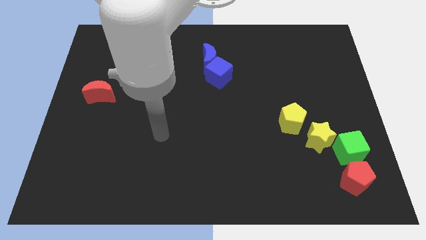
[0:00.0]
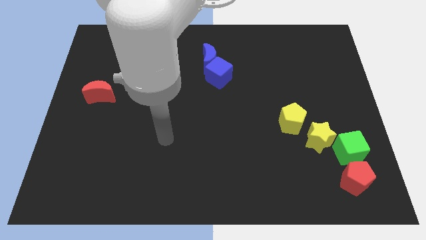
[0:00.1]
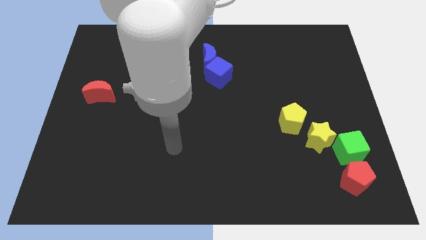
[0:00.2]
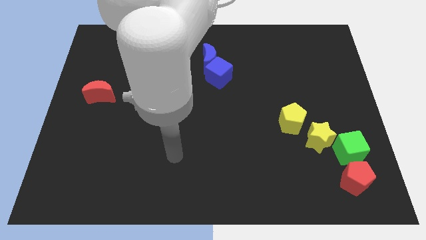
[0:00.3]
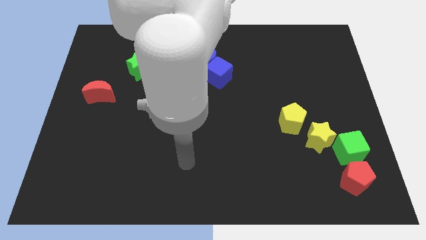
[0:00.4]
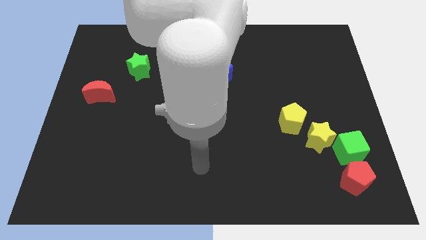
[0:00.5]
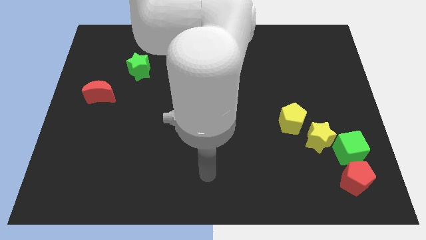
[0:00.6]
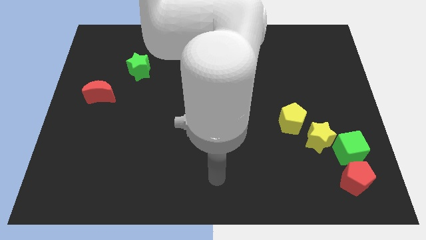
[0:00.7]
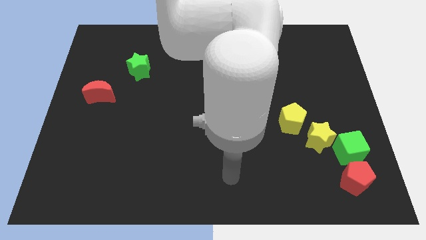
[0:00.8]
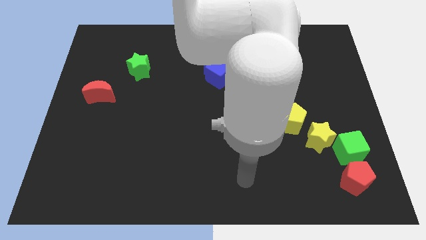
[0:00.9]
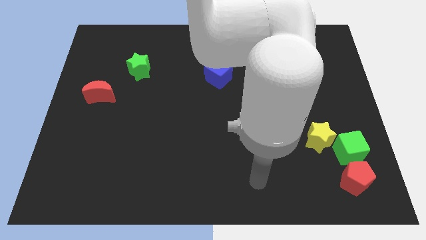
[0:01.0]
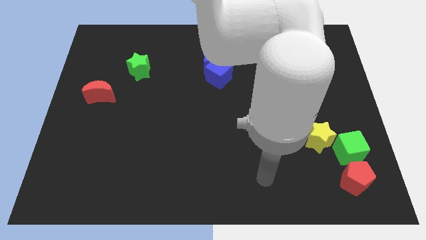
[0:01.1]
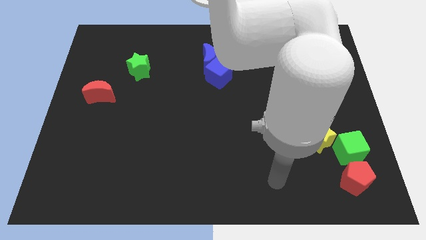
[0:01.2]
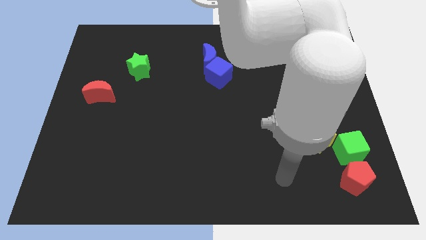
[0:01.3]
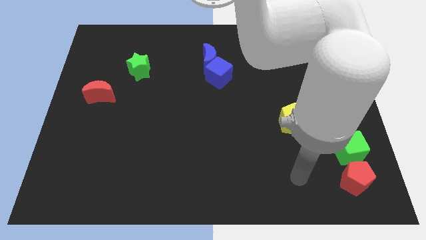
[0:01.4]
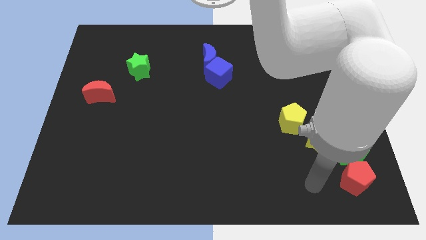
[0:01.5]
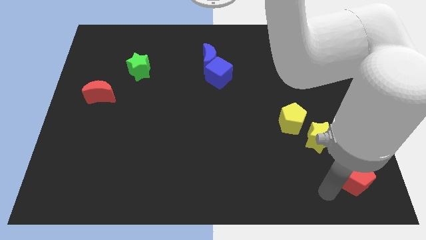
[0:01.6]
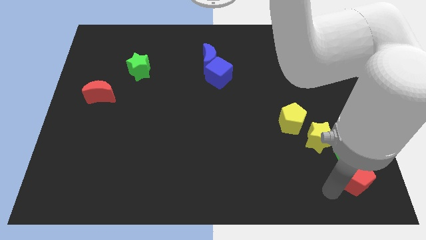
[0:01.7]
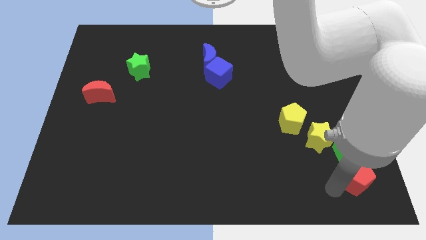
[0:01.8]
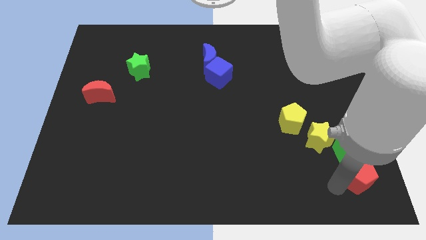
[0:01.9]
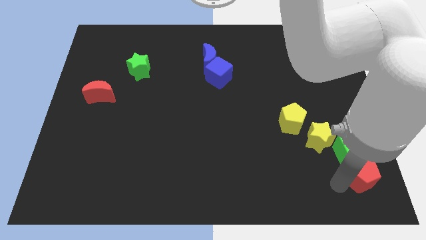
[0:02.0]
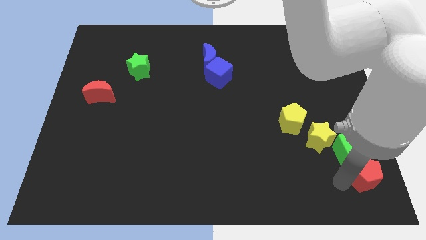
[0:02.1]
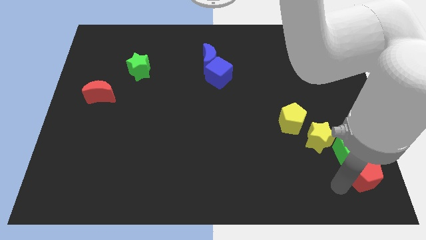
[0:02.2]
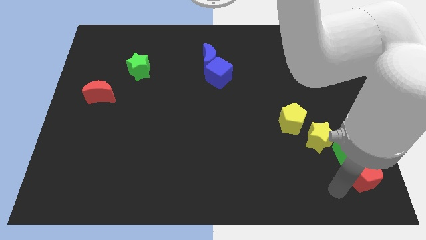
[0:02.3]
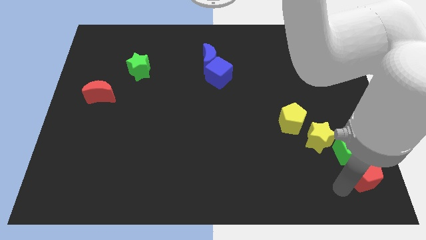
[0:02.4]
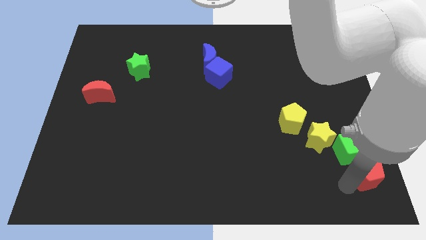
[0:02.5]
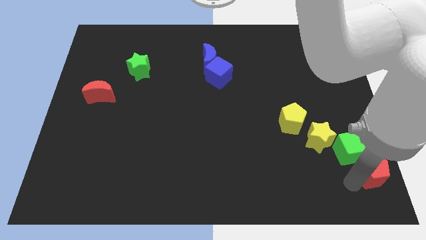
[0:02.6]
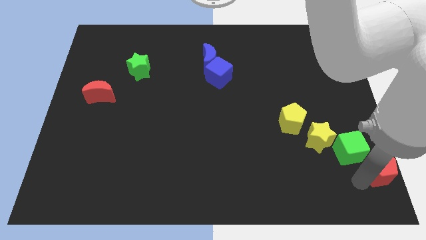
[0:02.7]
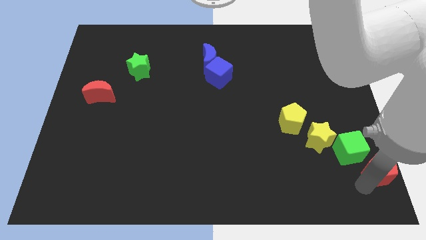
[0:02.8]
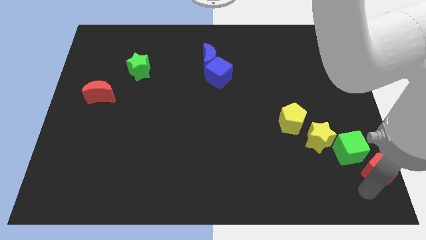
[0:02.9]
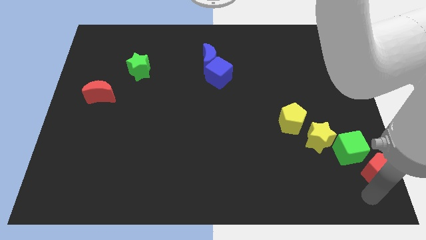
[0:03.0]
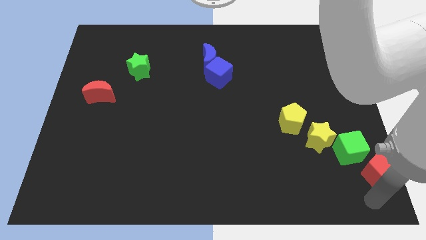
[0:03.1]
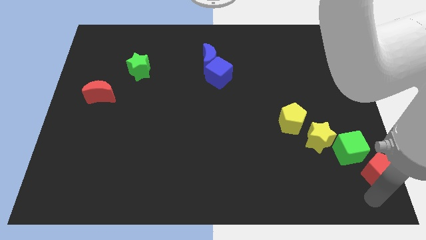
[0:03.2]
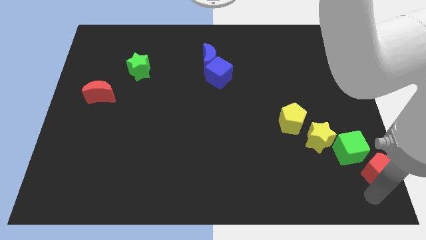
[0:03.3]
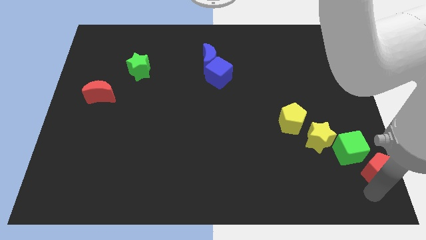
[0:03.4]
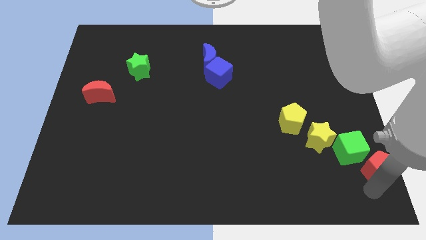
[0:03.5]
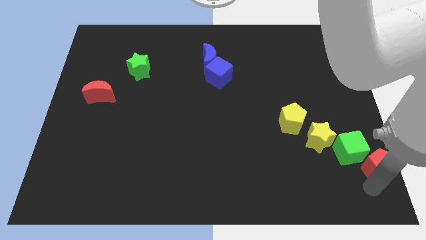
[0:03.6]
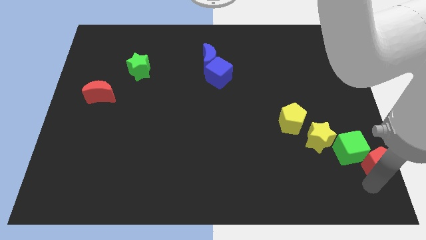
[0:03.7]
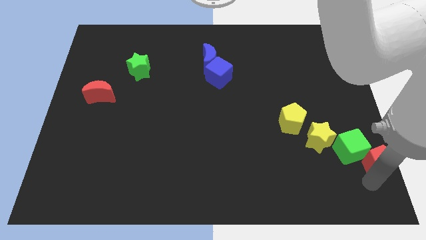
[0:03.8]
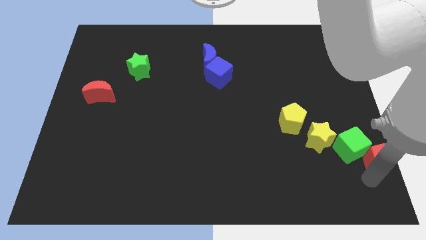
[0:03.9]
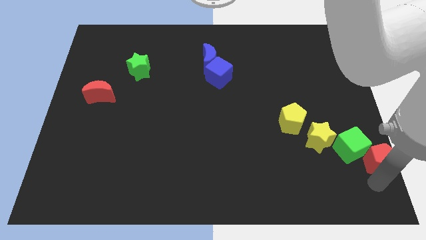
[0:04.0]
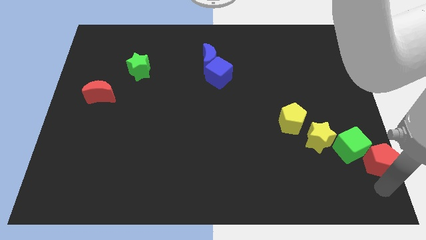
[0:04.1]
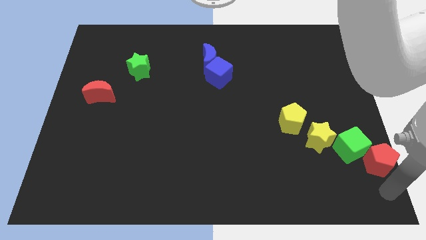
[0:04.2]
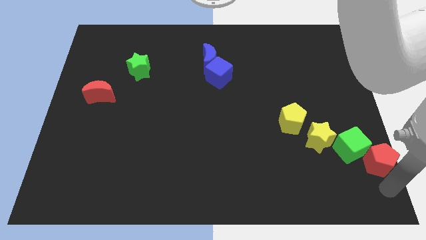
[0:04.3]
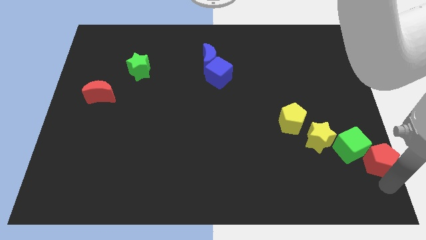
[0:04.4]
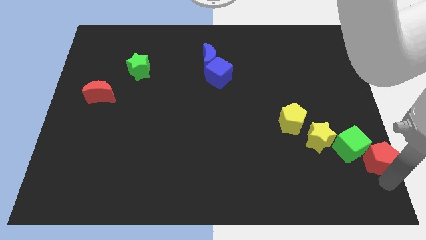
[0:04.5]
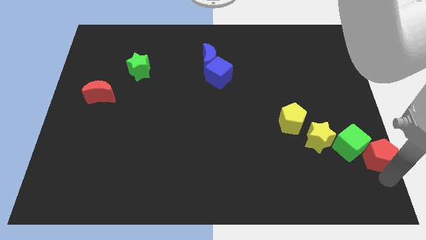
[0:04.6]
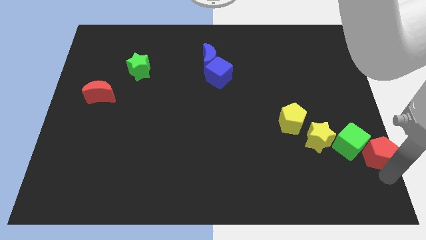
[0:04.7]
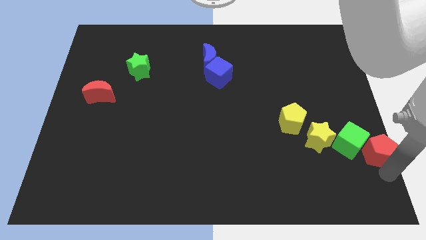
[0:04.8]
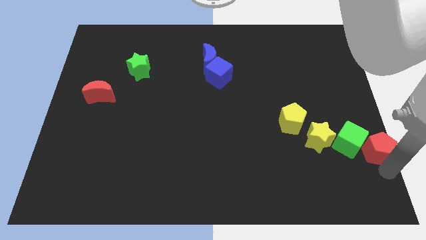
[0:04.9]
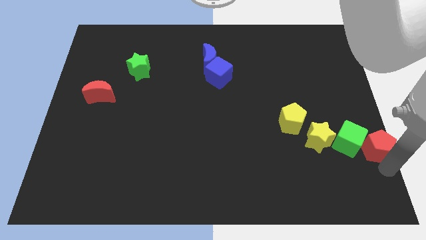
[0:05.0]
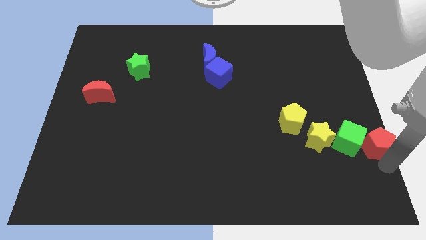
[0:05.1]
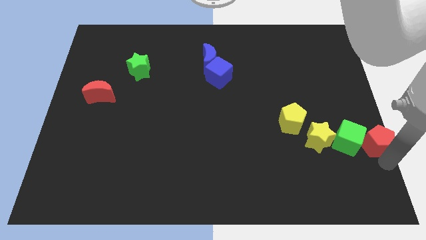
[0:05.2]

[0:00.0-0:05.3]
slightly slide the red pentagon upwards

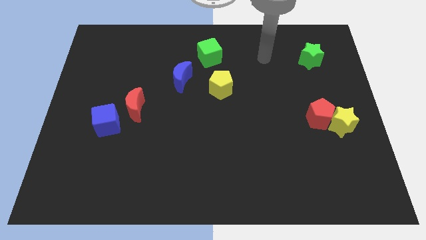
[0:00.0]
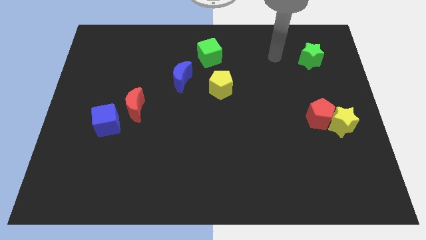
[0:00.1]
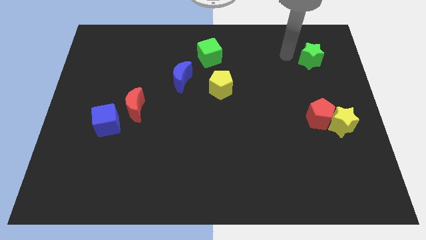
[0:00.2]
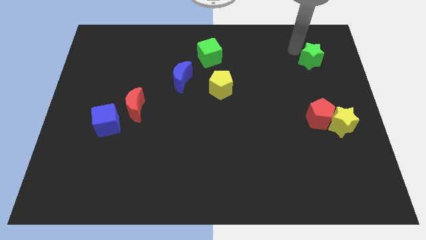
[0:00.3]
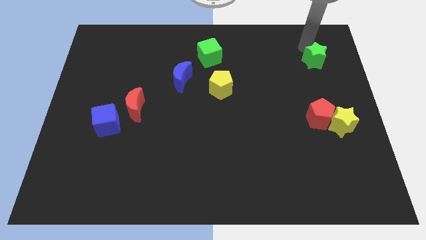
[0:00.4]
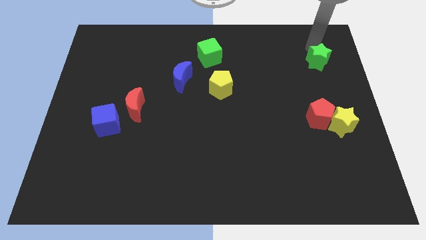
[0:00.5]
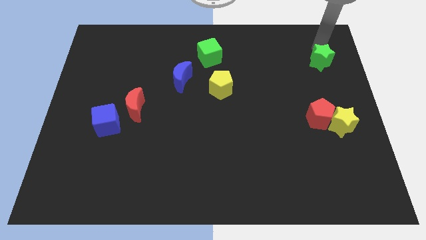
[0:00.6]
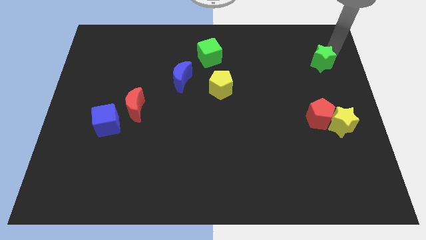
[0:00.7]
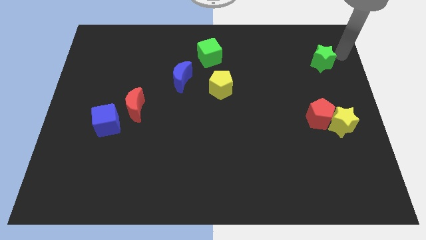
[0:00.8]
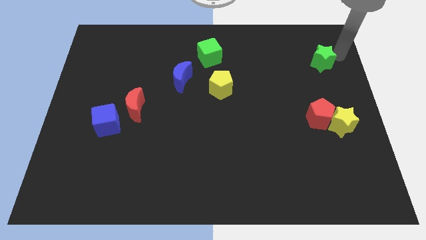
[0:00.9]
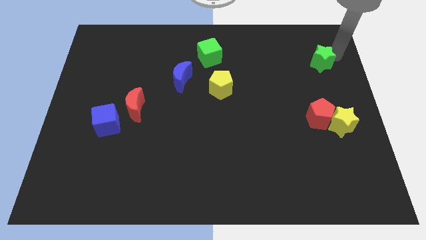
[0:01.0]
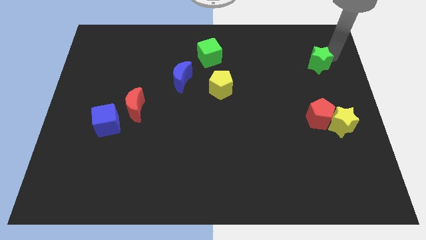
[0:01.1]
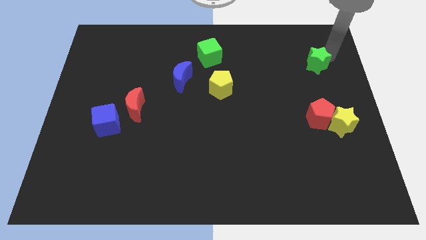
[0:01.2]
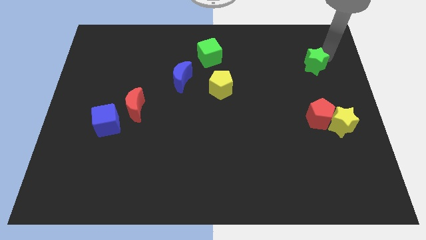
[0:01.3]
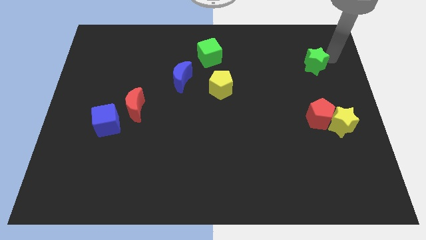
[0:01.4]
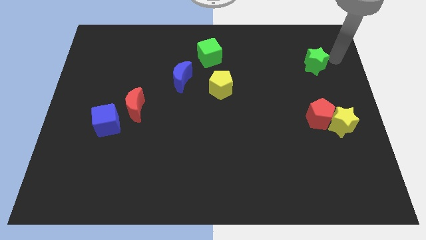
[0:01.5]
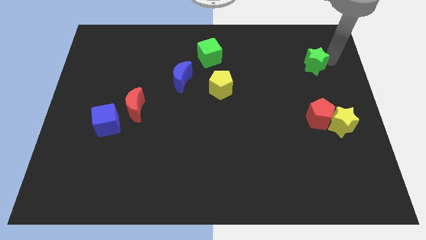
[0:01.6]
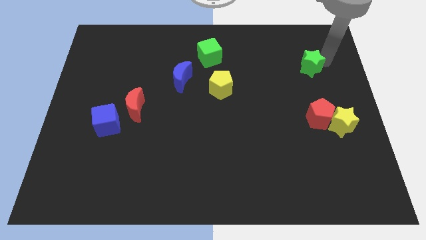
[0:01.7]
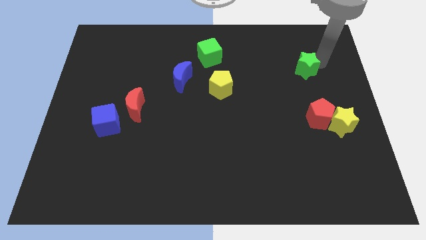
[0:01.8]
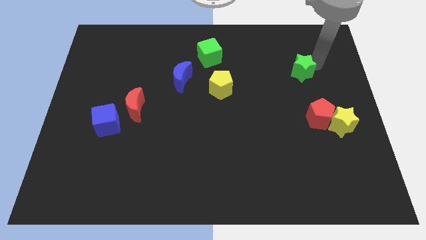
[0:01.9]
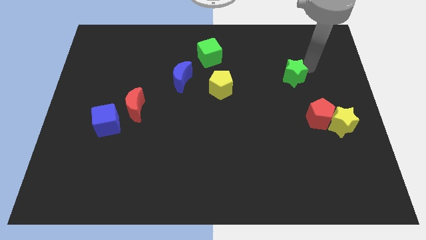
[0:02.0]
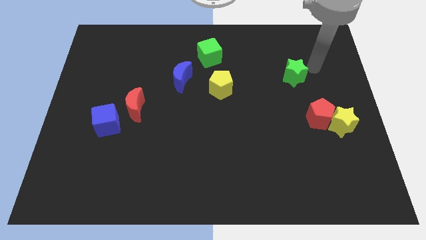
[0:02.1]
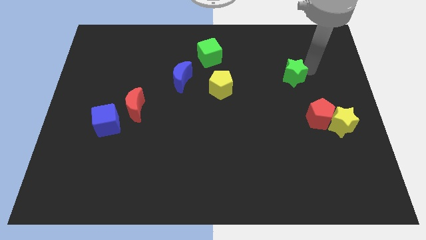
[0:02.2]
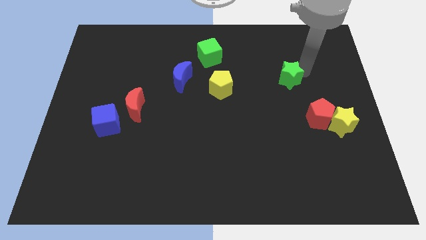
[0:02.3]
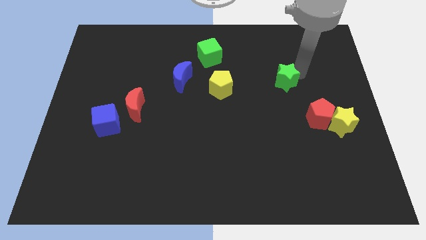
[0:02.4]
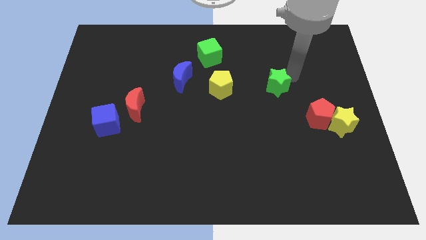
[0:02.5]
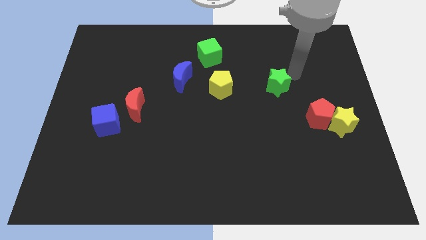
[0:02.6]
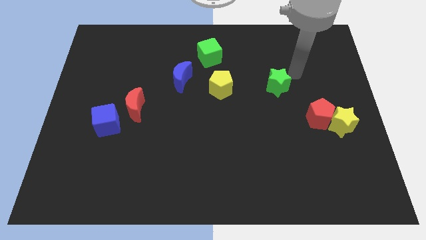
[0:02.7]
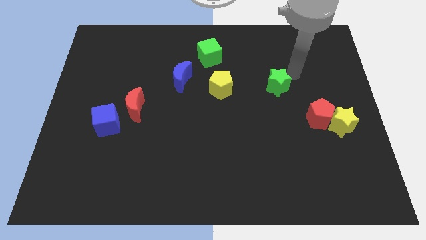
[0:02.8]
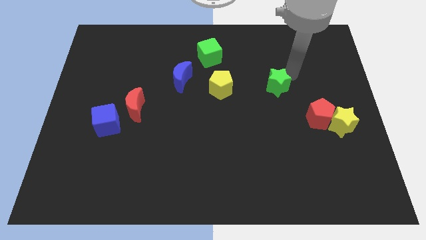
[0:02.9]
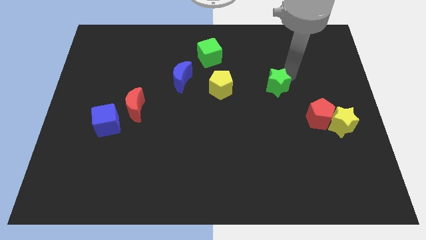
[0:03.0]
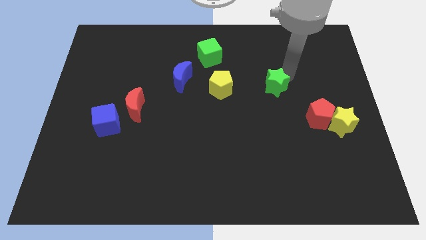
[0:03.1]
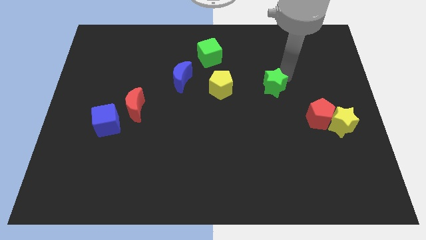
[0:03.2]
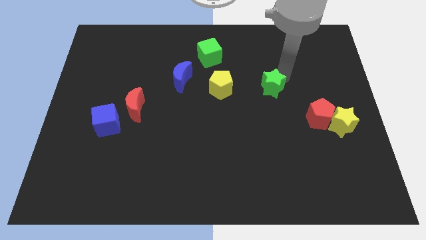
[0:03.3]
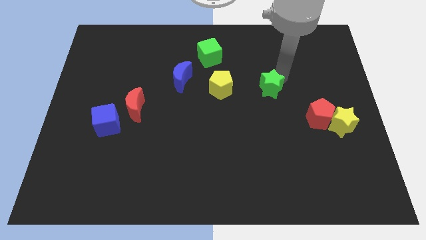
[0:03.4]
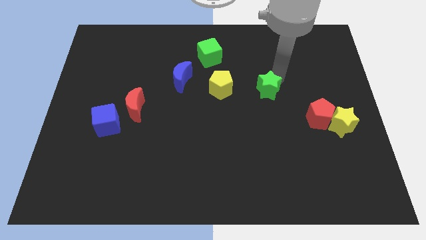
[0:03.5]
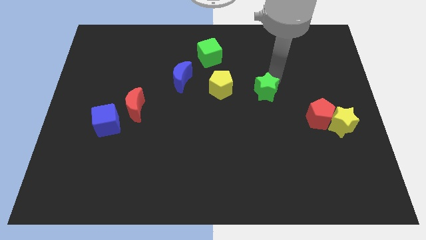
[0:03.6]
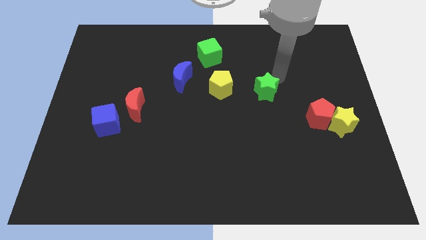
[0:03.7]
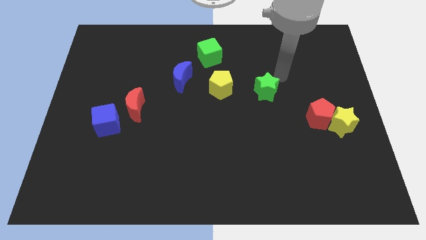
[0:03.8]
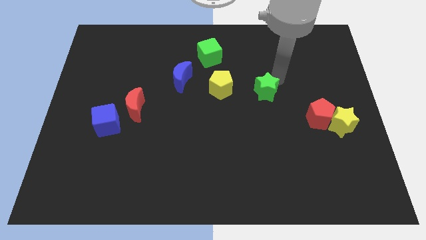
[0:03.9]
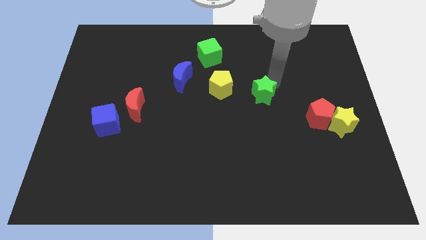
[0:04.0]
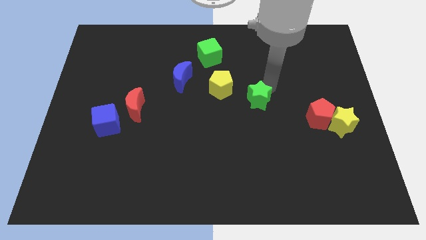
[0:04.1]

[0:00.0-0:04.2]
push the green star diagonally downwards and to the left
